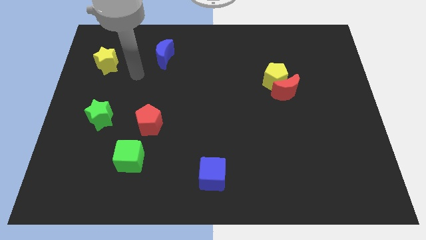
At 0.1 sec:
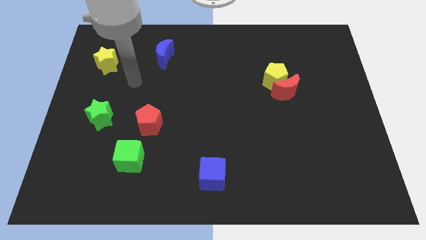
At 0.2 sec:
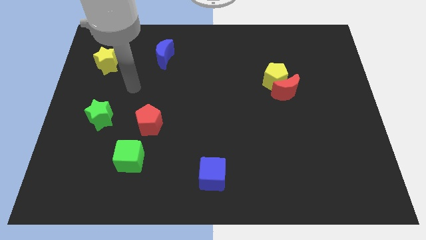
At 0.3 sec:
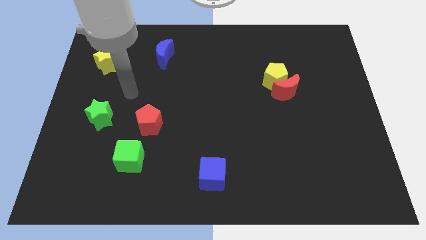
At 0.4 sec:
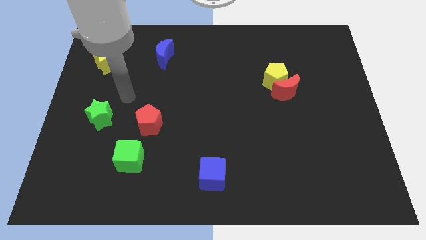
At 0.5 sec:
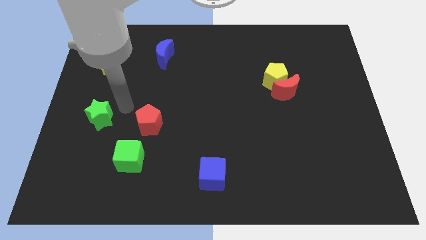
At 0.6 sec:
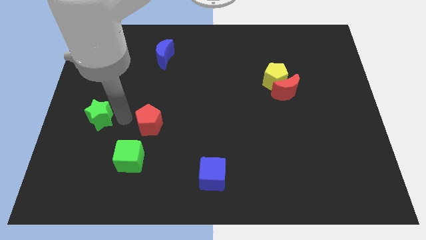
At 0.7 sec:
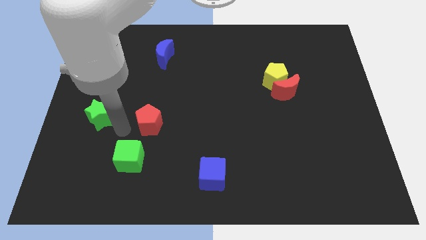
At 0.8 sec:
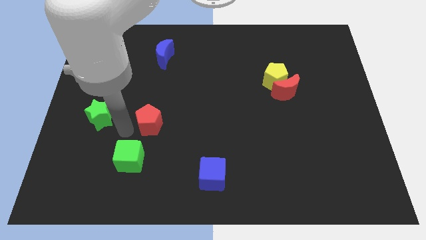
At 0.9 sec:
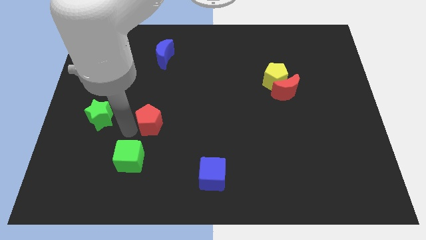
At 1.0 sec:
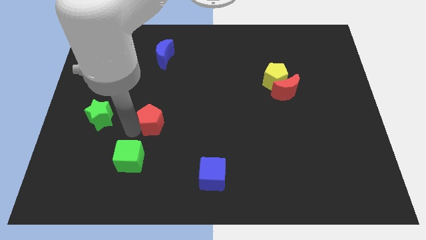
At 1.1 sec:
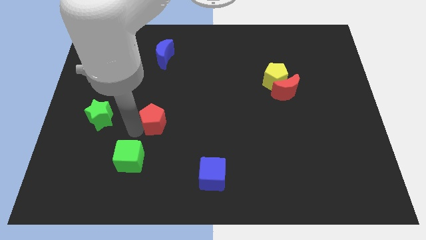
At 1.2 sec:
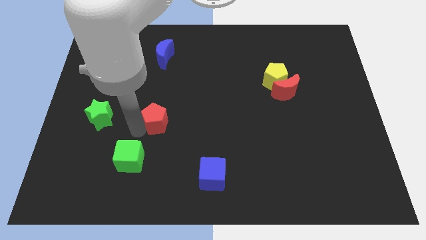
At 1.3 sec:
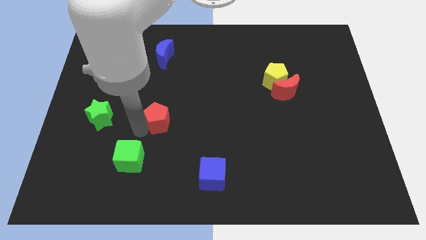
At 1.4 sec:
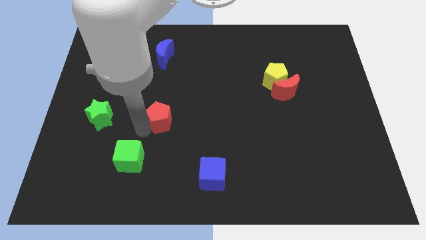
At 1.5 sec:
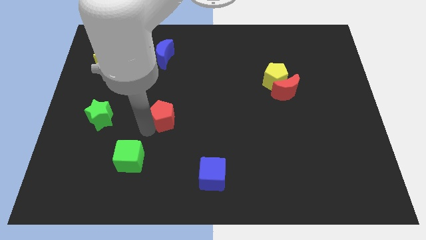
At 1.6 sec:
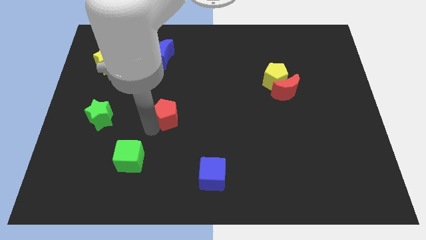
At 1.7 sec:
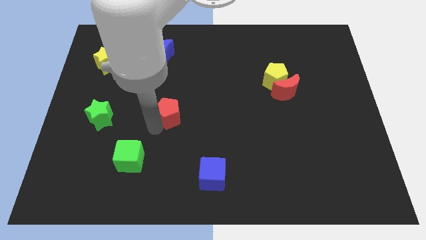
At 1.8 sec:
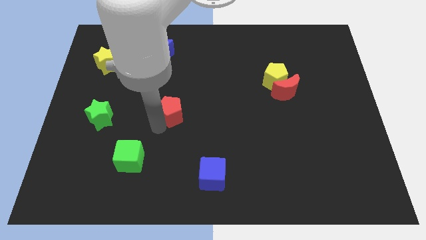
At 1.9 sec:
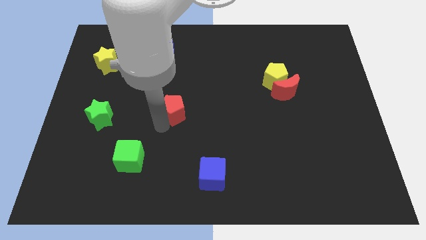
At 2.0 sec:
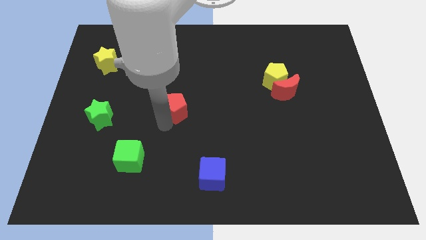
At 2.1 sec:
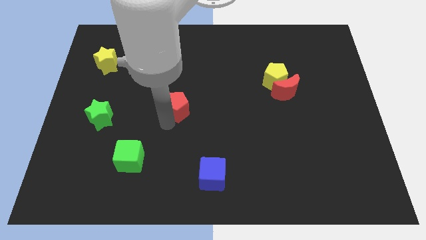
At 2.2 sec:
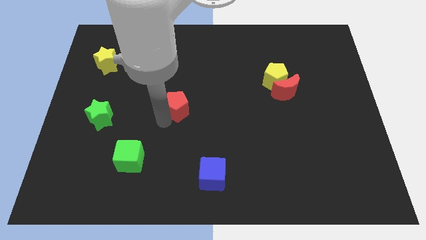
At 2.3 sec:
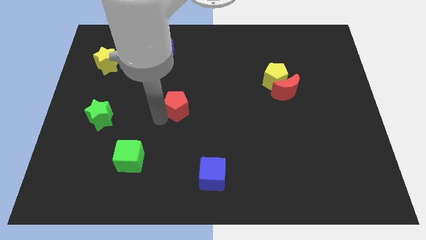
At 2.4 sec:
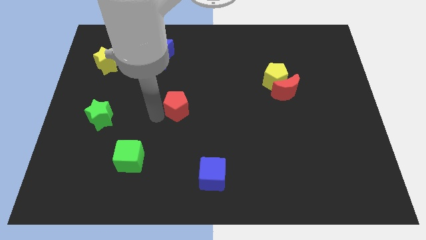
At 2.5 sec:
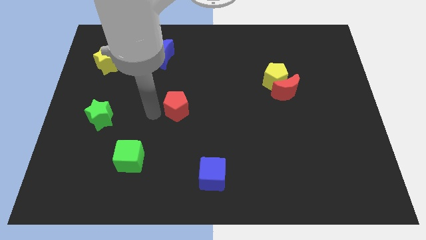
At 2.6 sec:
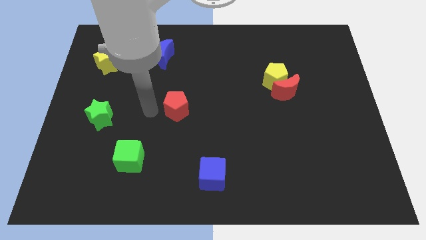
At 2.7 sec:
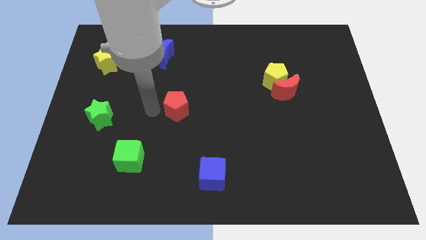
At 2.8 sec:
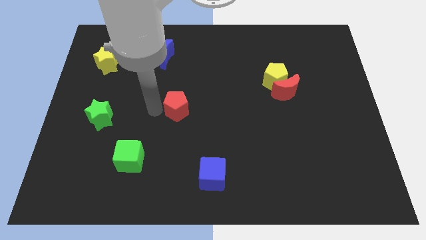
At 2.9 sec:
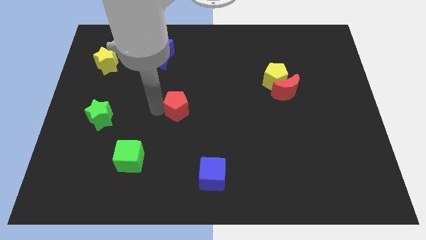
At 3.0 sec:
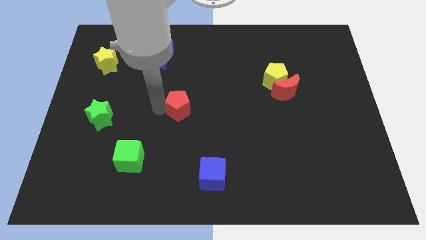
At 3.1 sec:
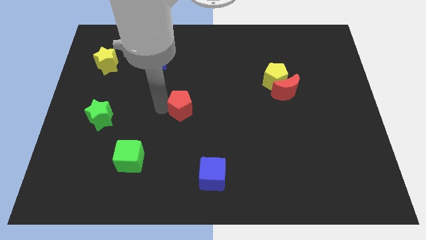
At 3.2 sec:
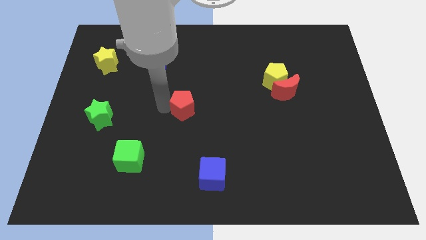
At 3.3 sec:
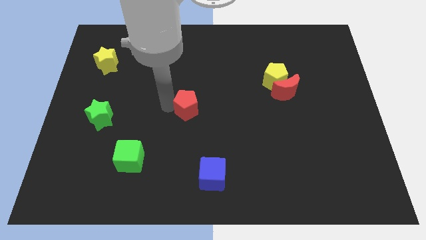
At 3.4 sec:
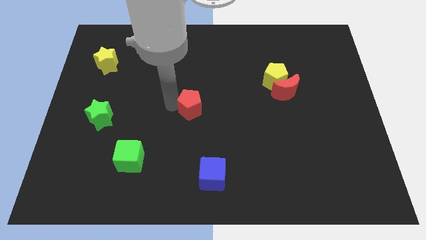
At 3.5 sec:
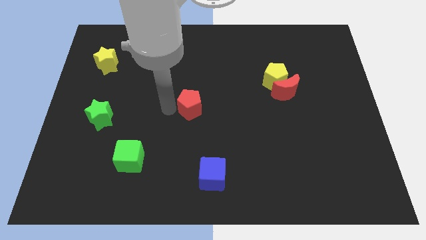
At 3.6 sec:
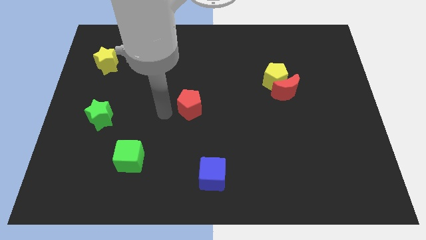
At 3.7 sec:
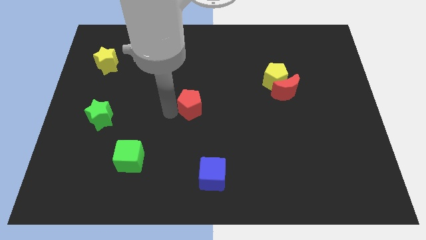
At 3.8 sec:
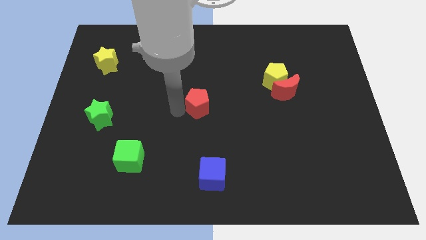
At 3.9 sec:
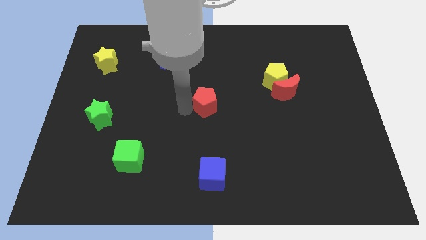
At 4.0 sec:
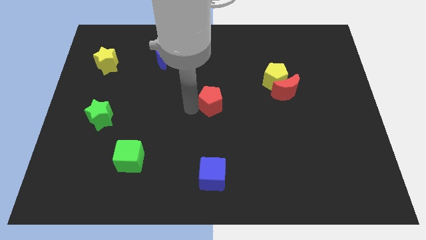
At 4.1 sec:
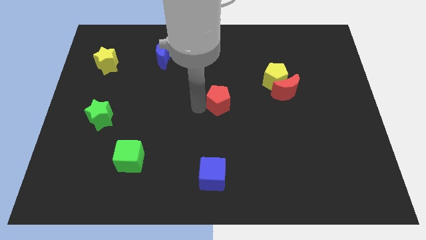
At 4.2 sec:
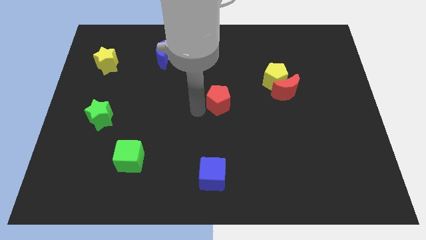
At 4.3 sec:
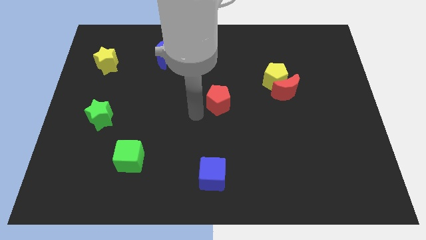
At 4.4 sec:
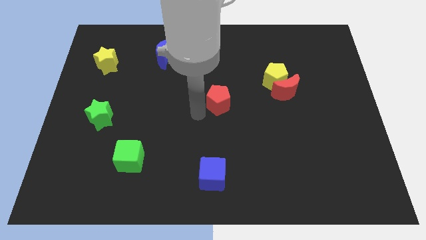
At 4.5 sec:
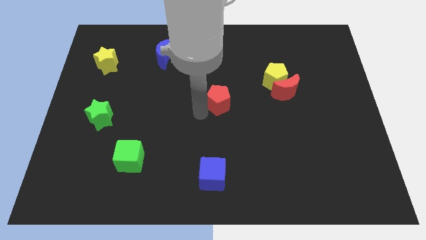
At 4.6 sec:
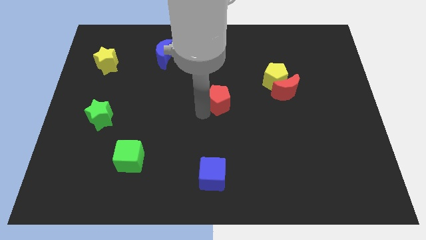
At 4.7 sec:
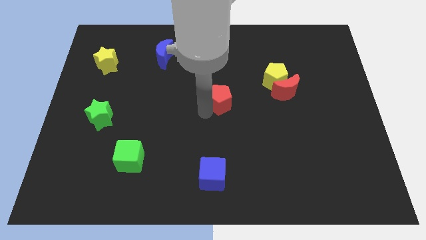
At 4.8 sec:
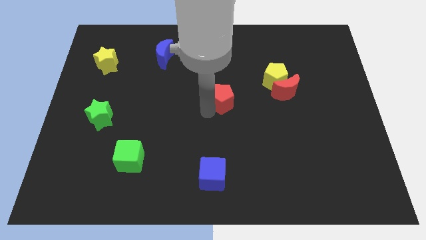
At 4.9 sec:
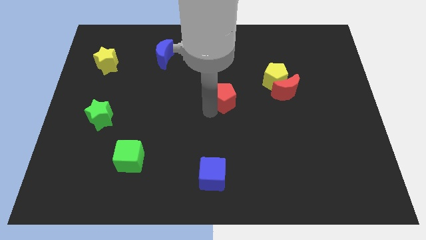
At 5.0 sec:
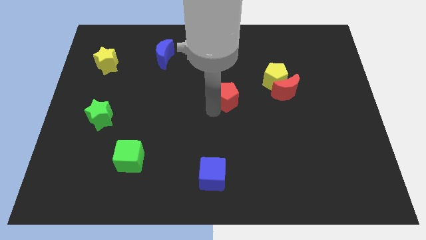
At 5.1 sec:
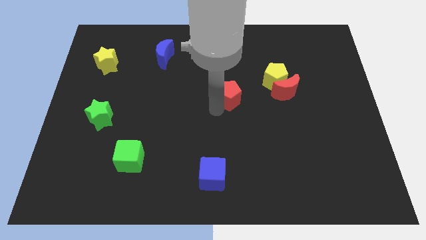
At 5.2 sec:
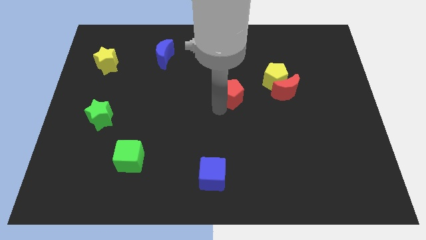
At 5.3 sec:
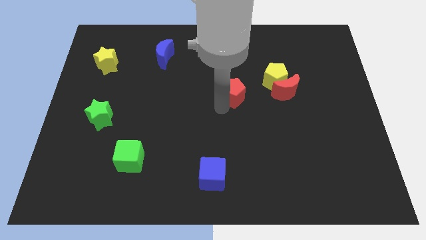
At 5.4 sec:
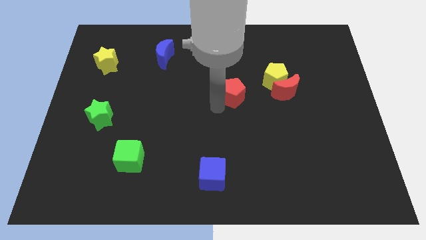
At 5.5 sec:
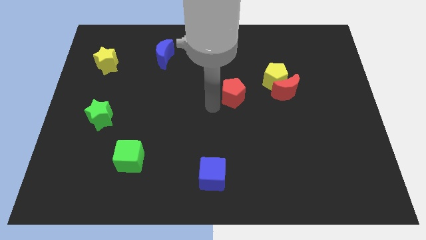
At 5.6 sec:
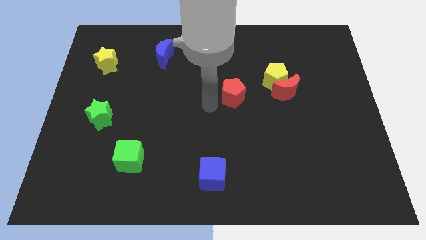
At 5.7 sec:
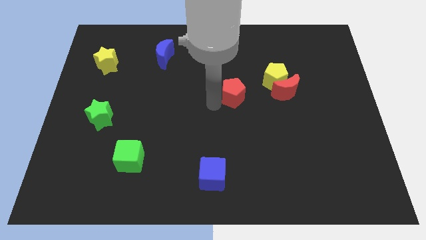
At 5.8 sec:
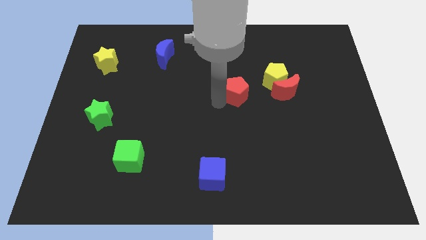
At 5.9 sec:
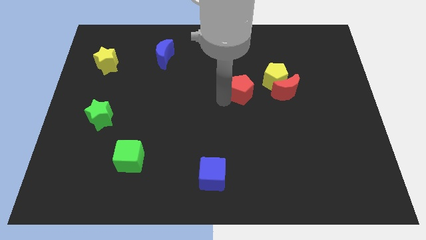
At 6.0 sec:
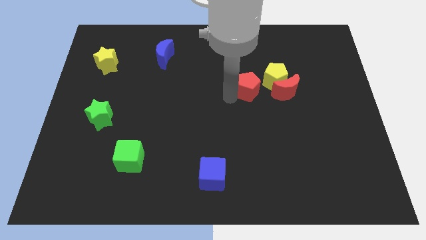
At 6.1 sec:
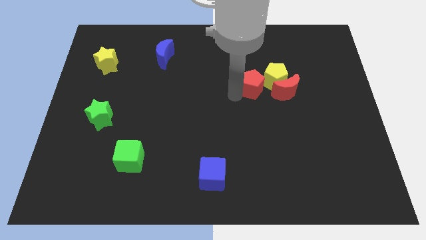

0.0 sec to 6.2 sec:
put the red pentagon to the yellow pentagon

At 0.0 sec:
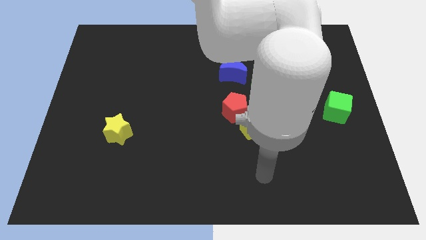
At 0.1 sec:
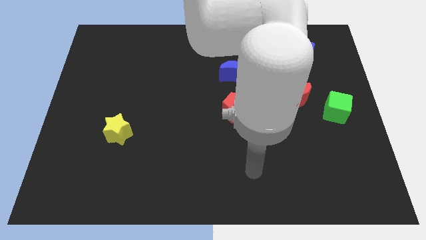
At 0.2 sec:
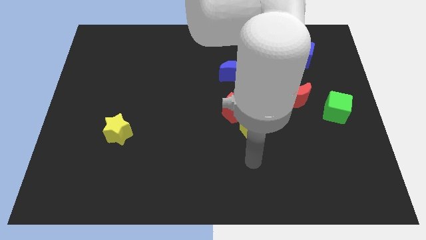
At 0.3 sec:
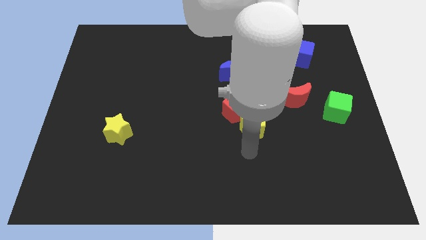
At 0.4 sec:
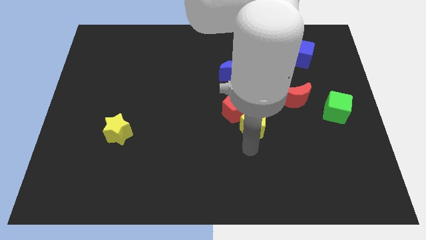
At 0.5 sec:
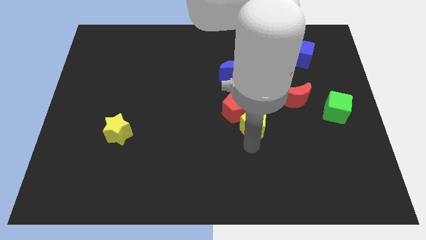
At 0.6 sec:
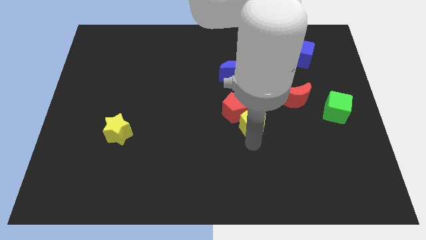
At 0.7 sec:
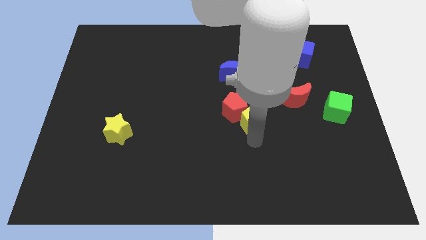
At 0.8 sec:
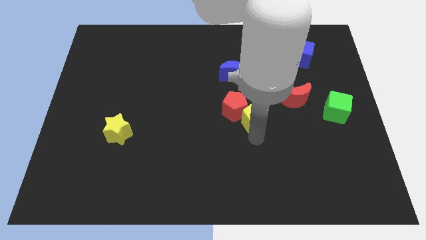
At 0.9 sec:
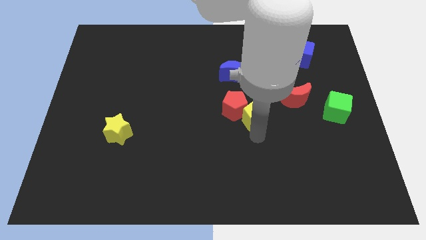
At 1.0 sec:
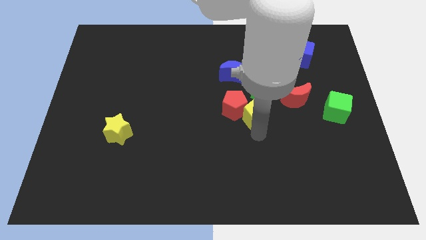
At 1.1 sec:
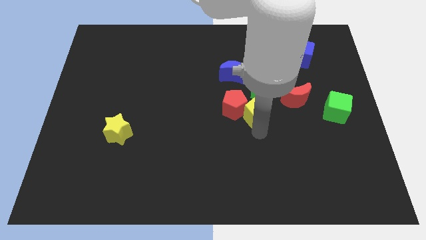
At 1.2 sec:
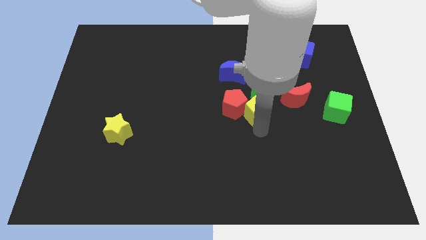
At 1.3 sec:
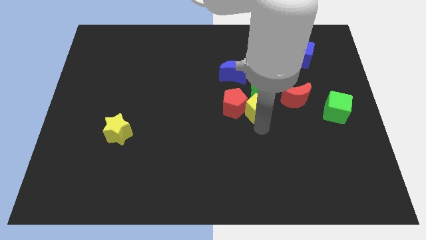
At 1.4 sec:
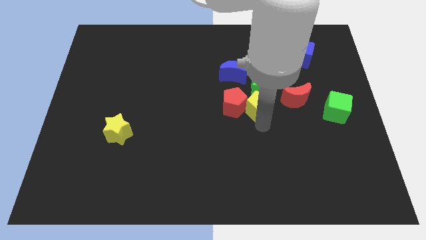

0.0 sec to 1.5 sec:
push the yellow pentagon to the green star
